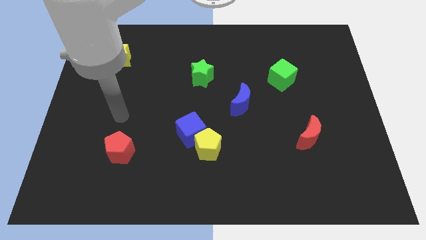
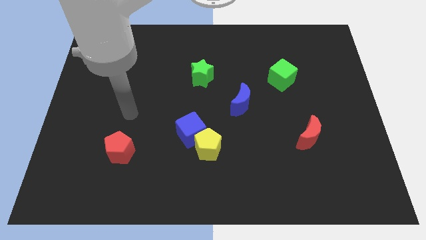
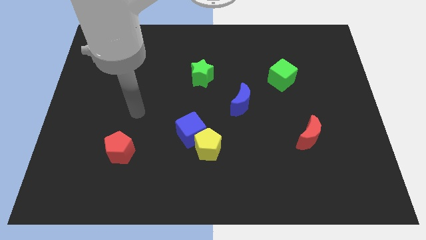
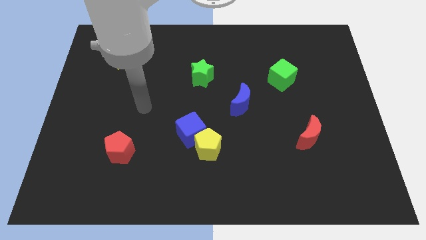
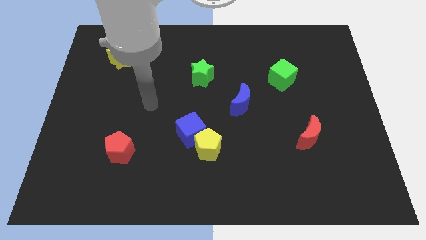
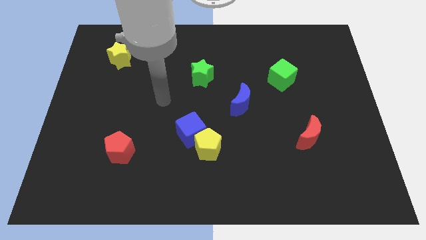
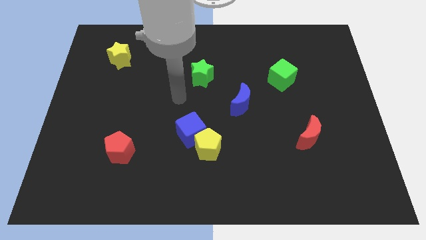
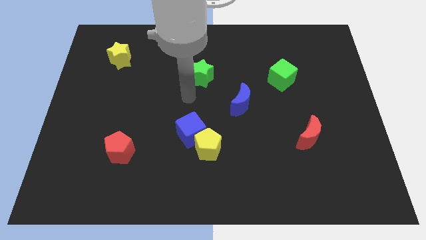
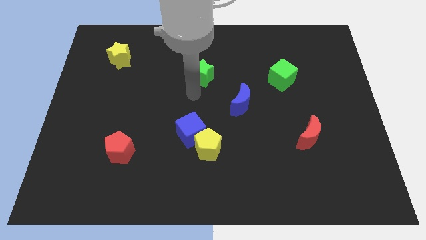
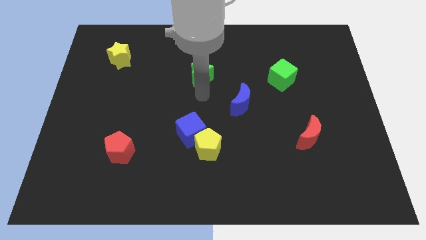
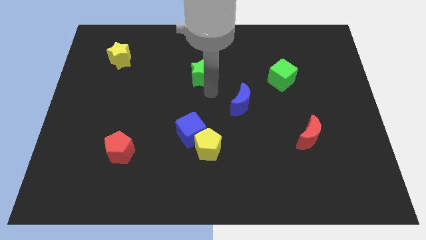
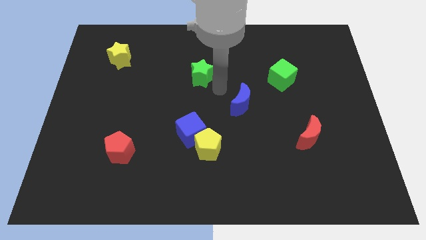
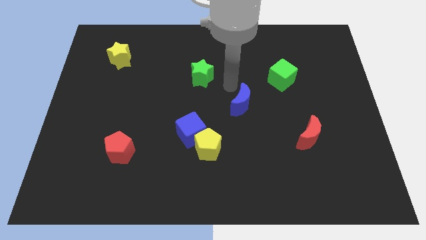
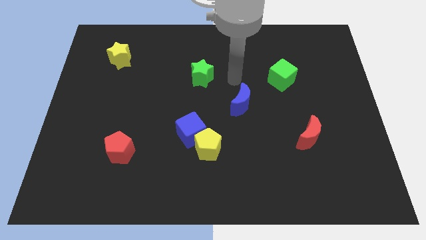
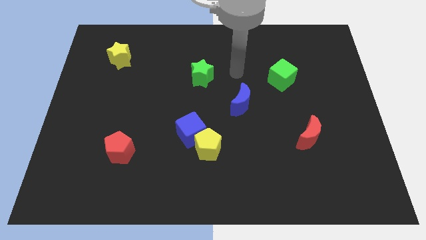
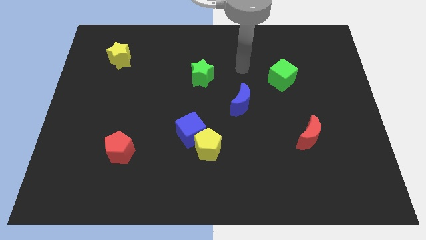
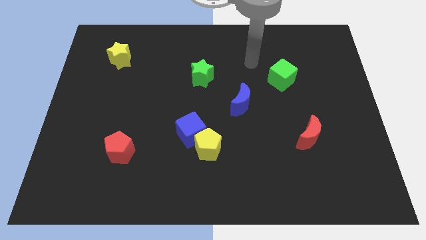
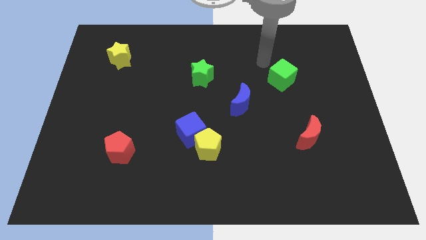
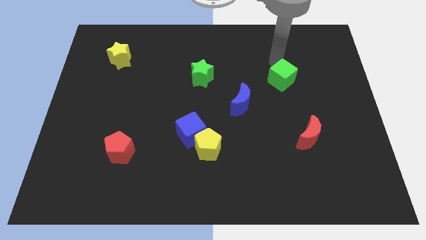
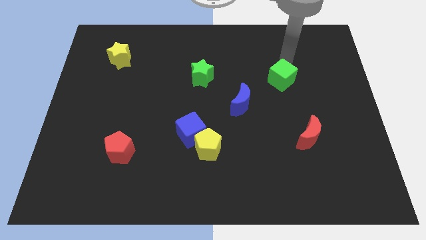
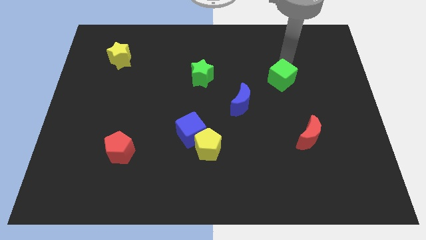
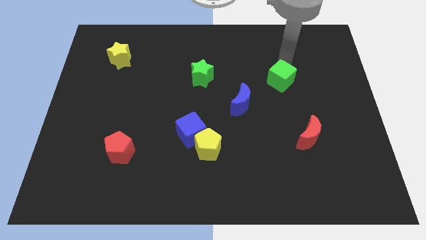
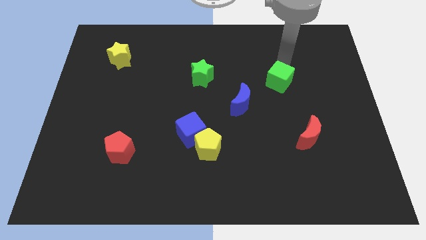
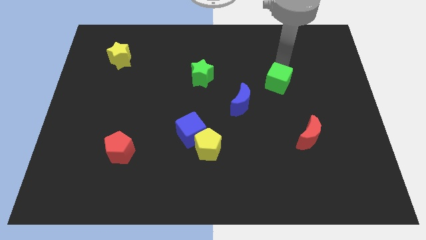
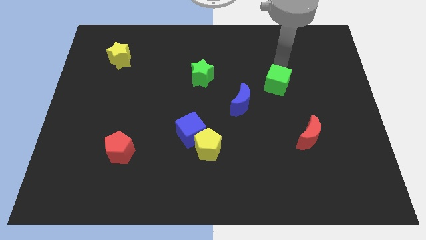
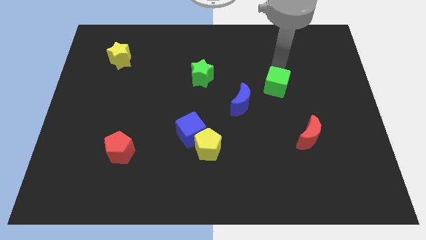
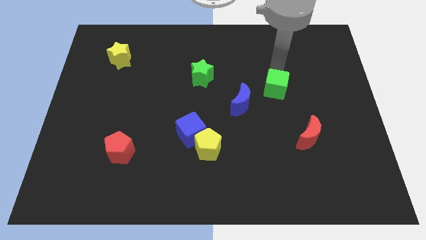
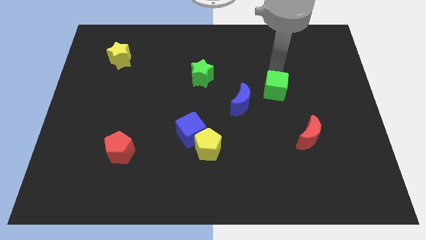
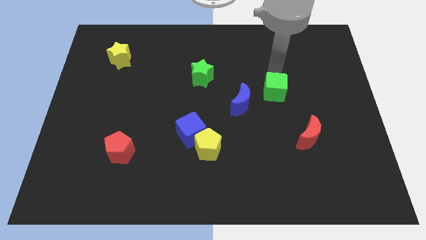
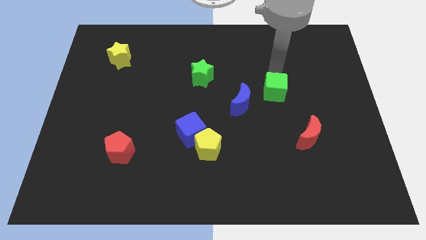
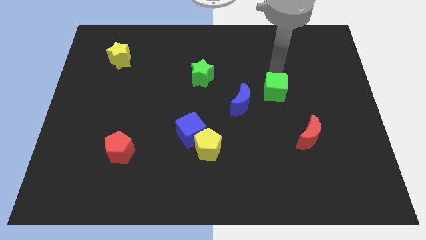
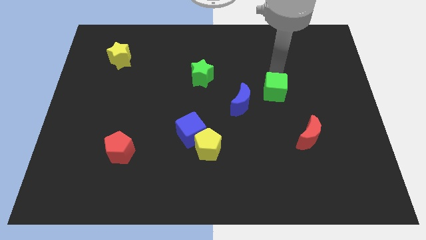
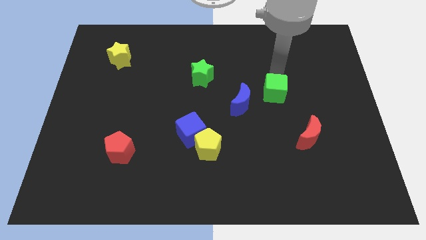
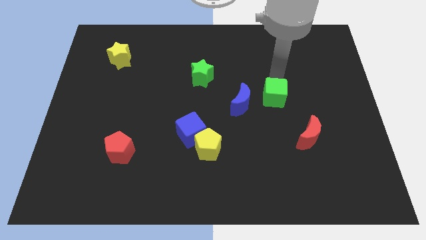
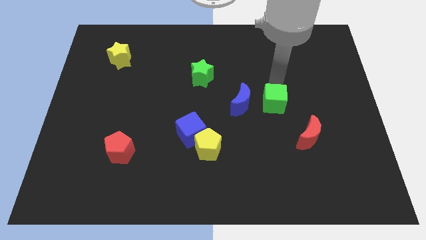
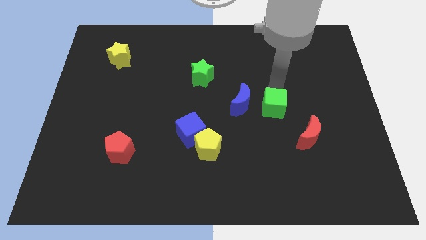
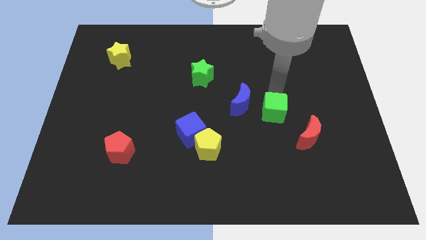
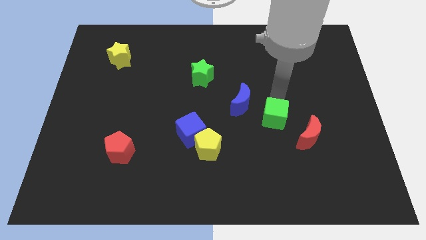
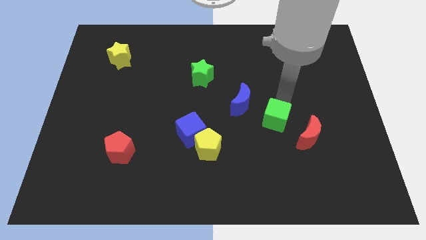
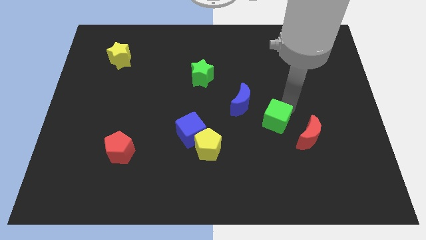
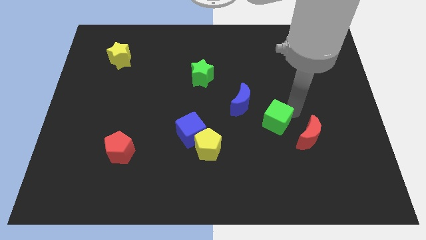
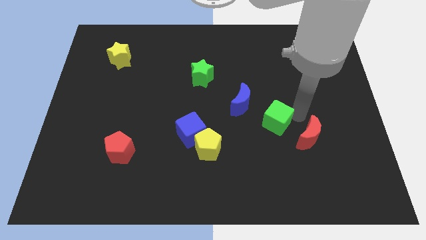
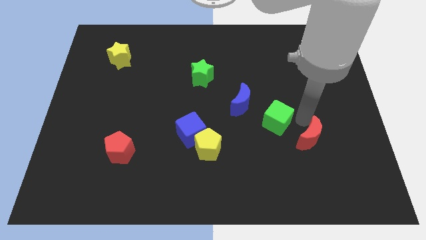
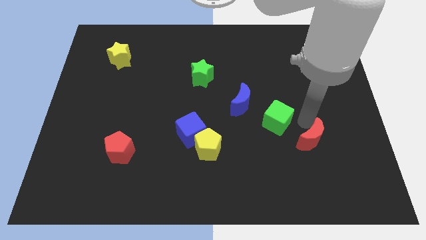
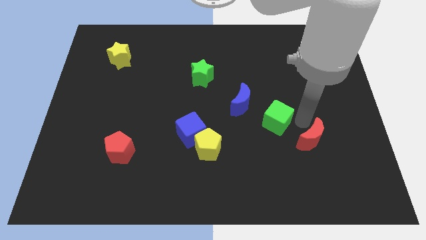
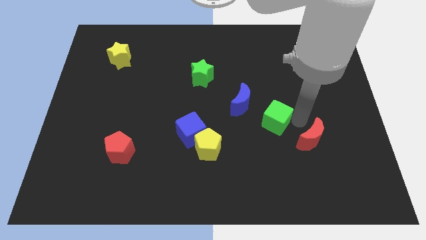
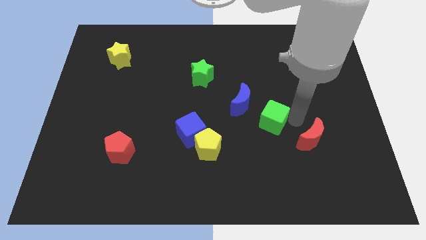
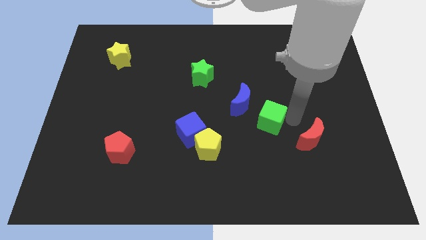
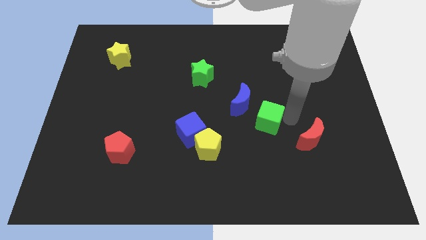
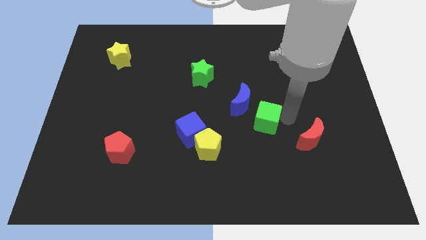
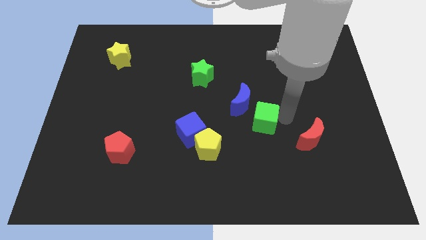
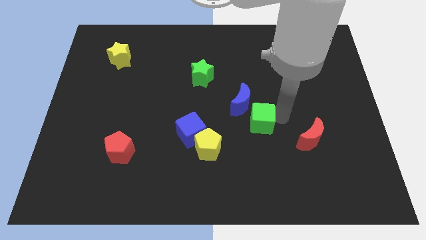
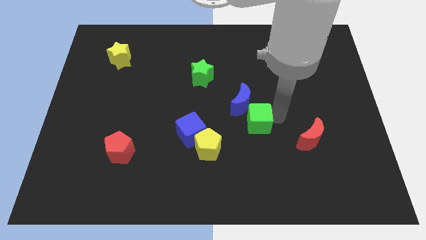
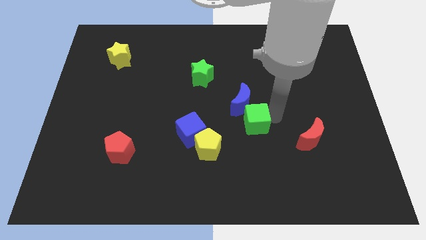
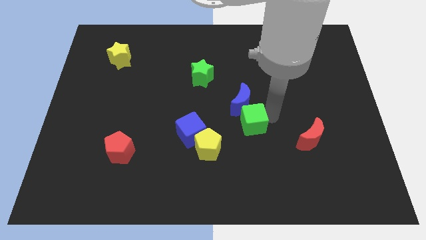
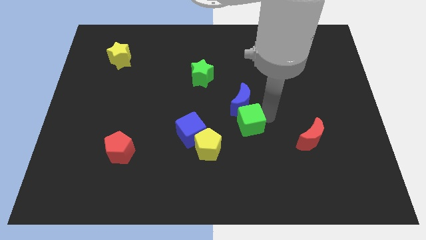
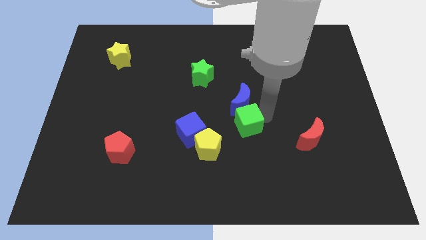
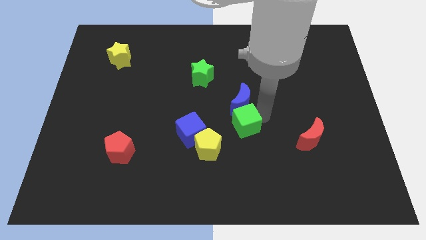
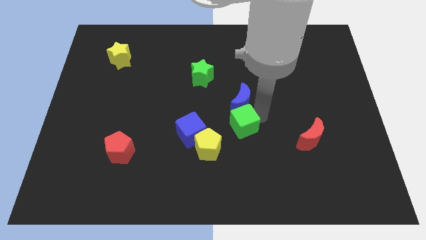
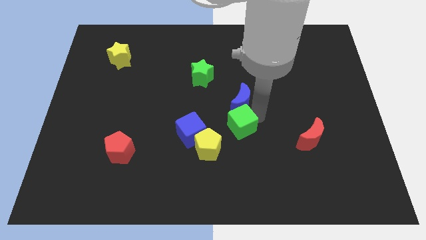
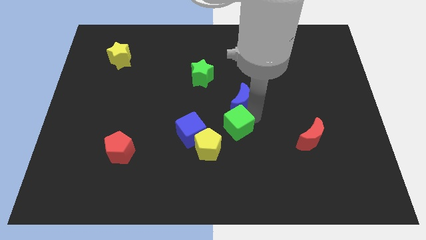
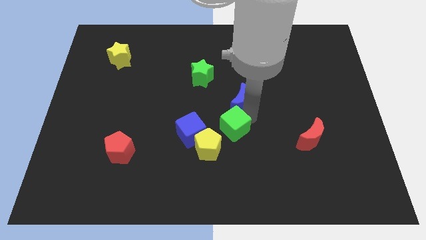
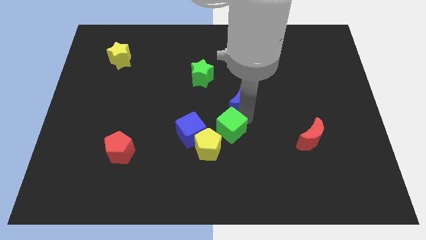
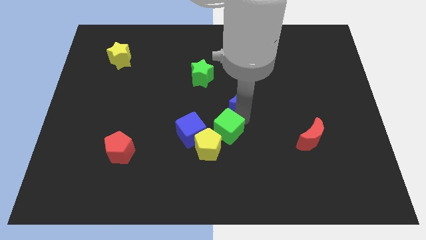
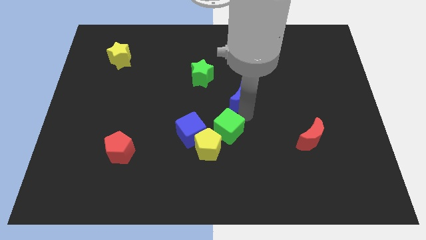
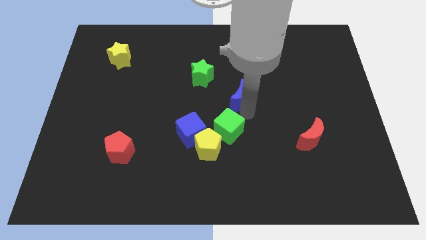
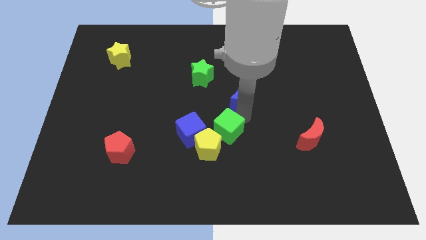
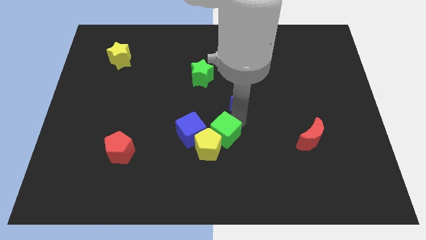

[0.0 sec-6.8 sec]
push the green cube to the yellow pentagon
